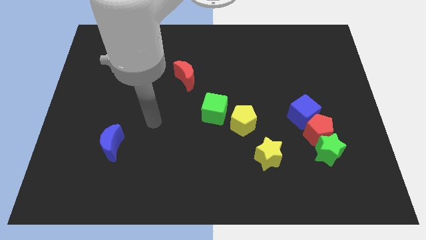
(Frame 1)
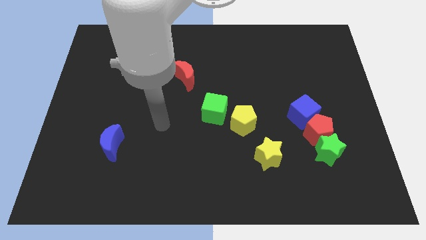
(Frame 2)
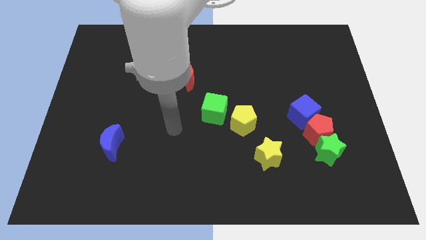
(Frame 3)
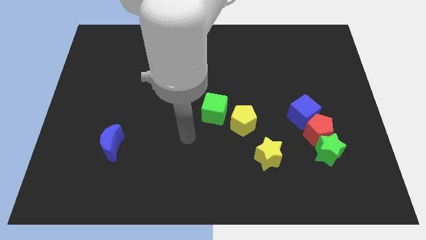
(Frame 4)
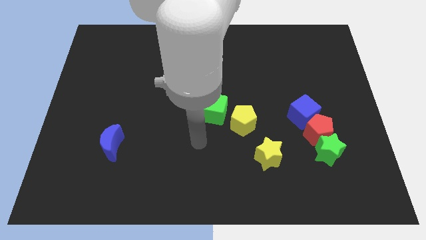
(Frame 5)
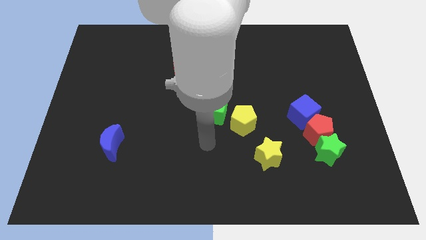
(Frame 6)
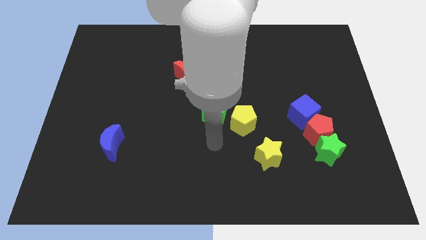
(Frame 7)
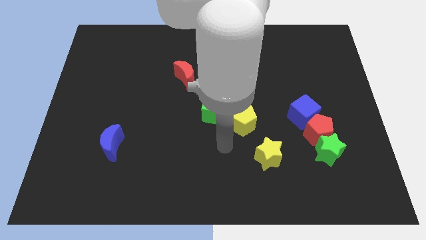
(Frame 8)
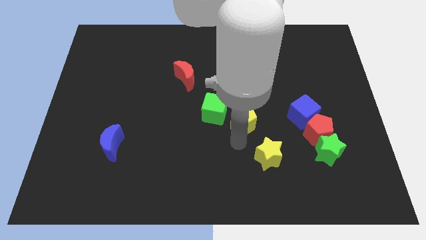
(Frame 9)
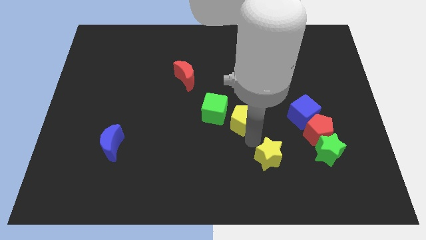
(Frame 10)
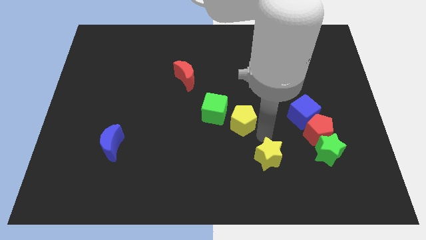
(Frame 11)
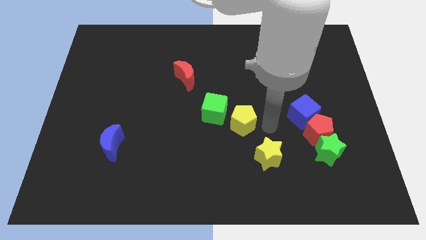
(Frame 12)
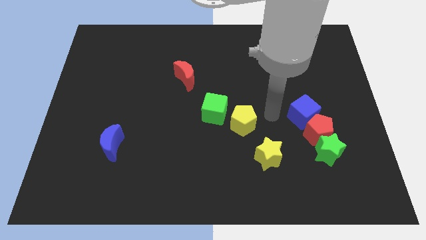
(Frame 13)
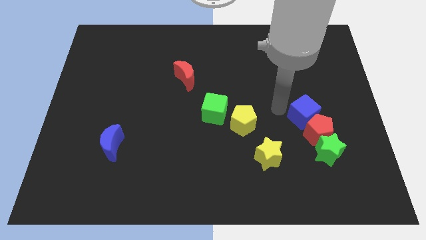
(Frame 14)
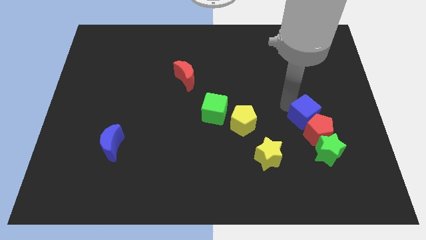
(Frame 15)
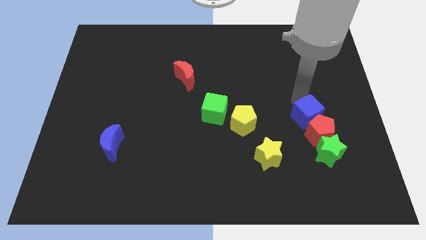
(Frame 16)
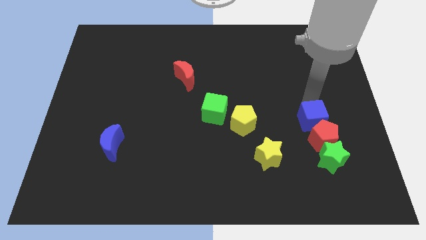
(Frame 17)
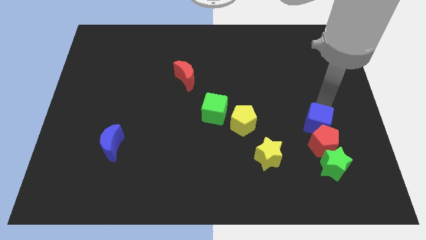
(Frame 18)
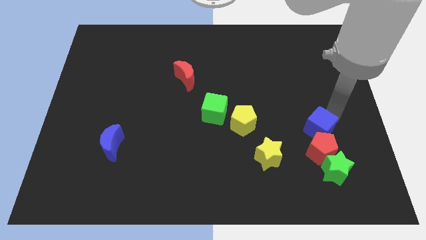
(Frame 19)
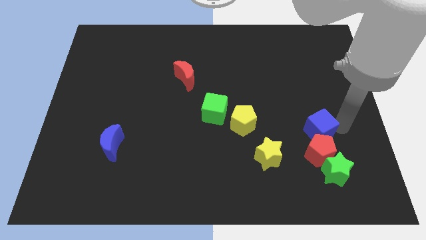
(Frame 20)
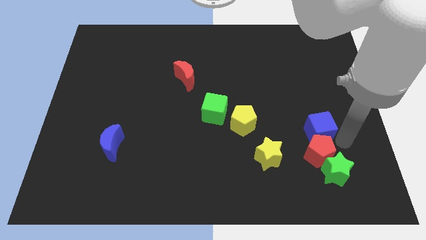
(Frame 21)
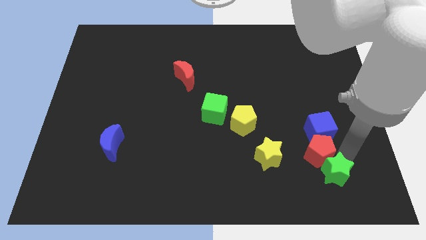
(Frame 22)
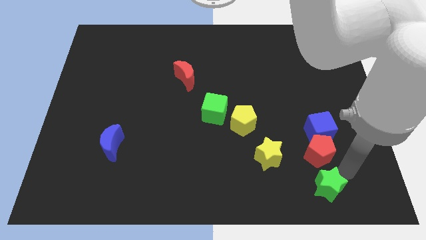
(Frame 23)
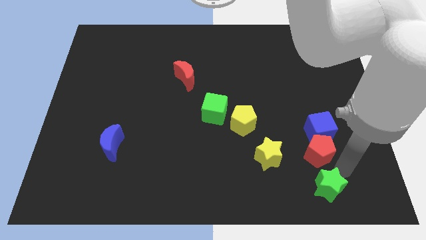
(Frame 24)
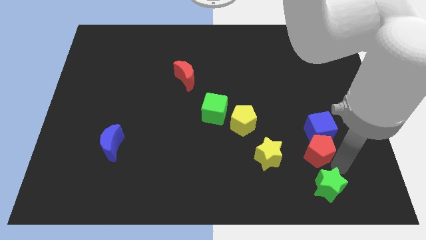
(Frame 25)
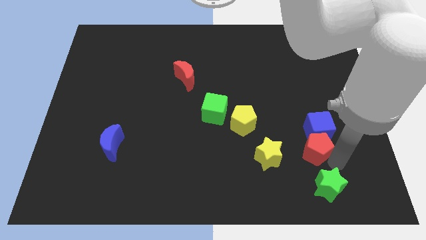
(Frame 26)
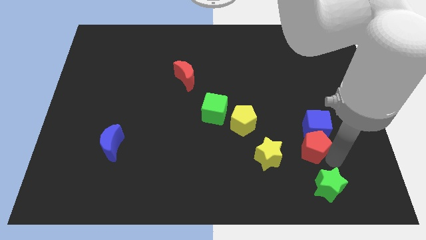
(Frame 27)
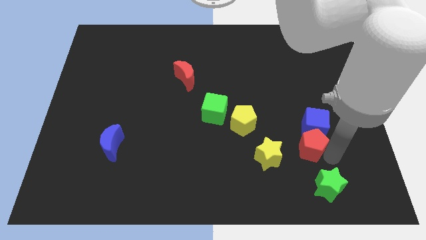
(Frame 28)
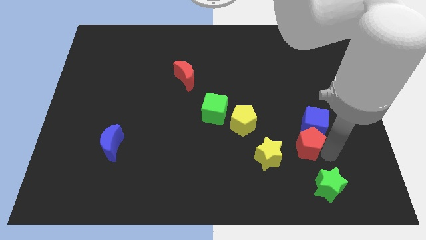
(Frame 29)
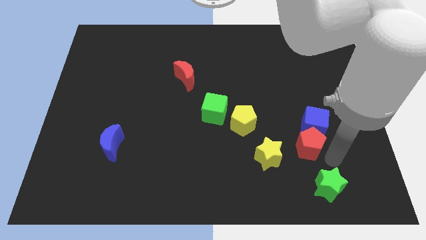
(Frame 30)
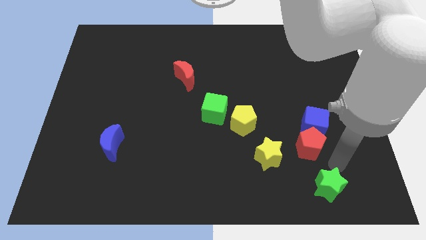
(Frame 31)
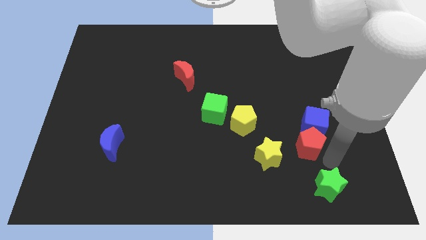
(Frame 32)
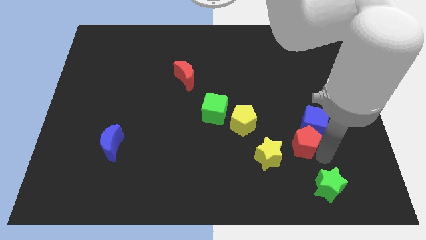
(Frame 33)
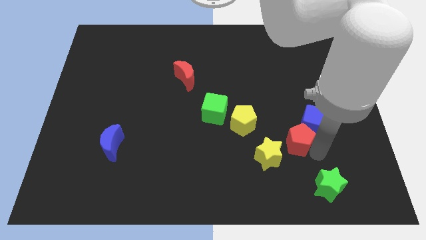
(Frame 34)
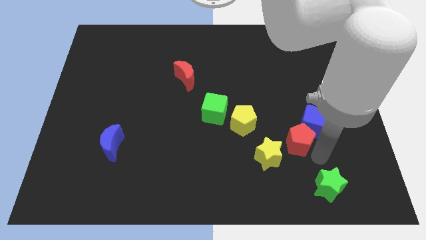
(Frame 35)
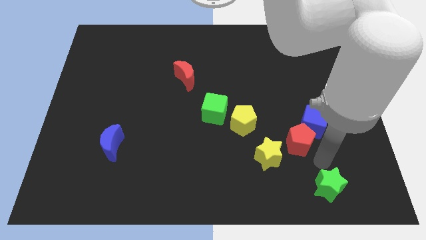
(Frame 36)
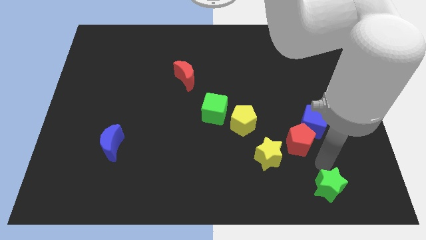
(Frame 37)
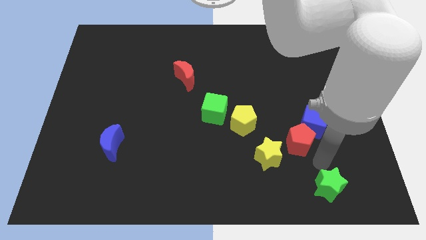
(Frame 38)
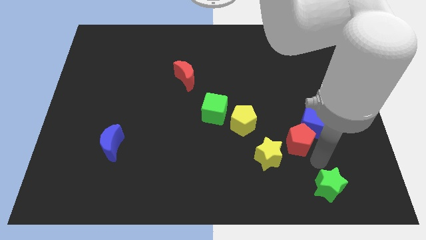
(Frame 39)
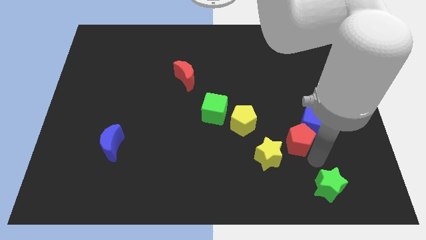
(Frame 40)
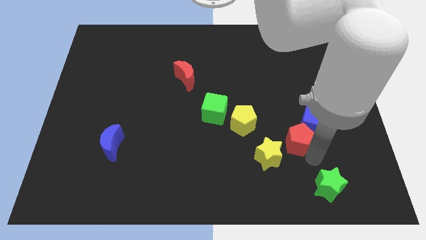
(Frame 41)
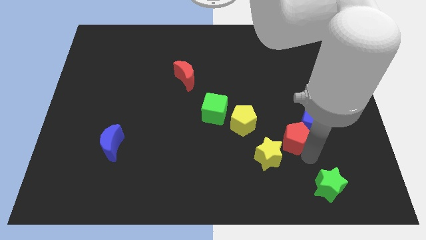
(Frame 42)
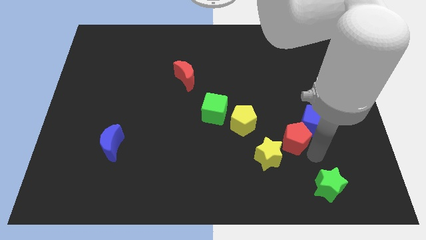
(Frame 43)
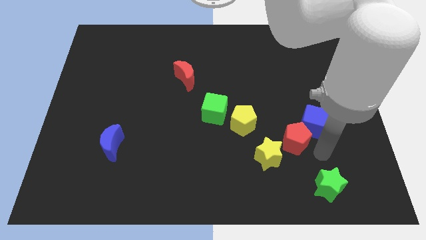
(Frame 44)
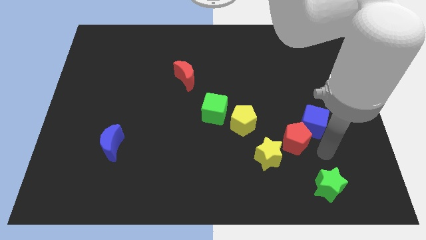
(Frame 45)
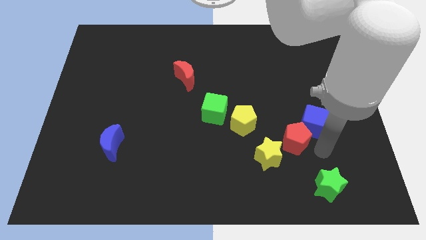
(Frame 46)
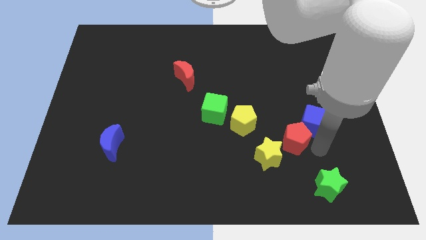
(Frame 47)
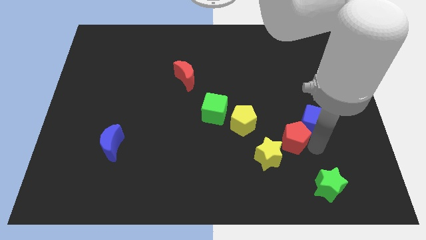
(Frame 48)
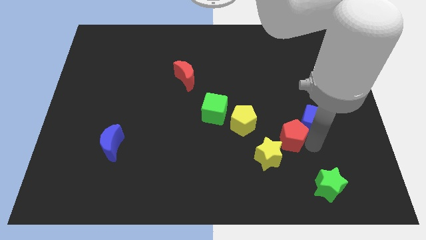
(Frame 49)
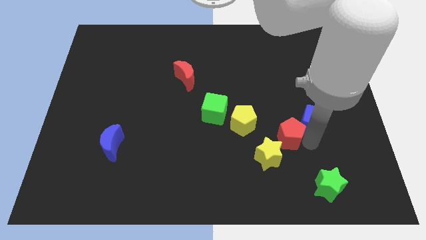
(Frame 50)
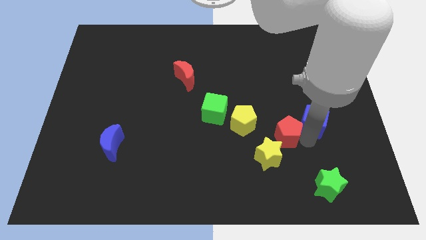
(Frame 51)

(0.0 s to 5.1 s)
move the red pentagon to the left a bit

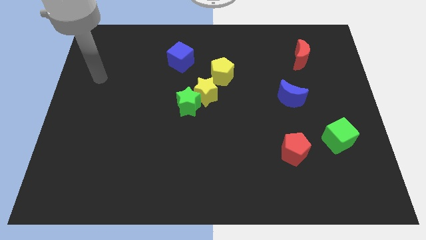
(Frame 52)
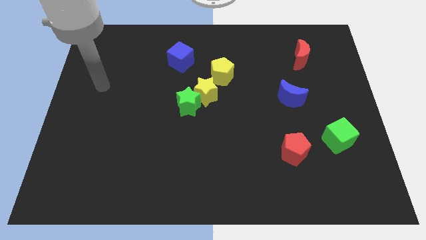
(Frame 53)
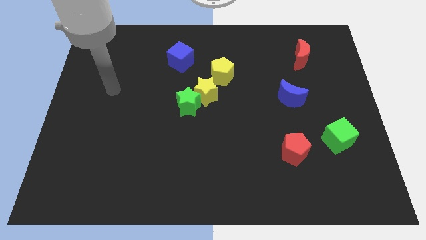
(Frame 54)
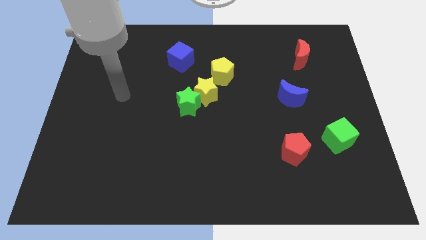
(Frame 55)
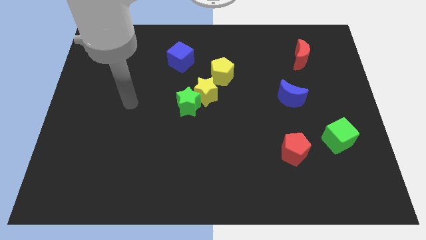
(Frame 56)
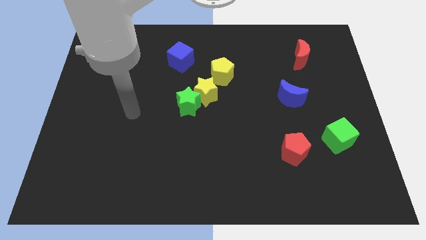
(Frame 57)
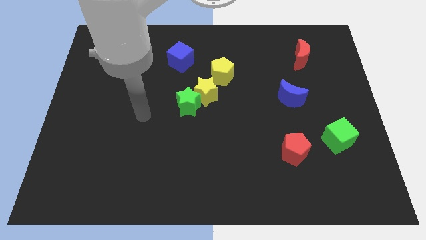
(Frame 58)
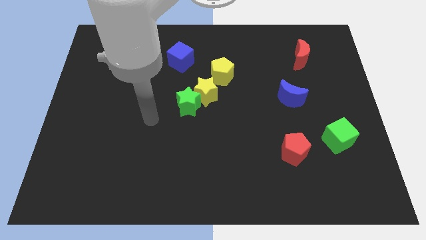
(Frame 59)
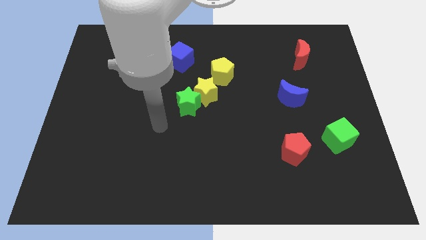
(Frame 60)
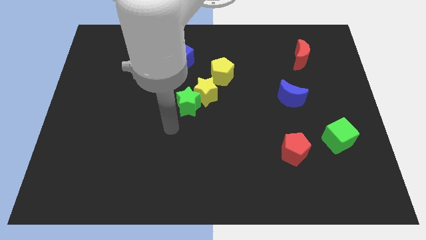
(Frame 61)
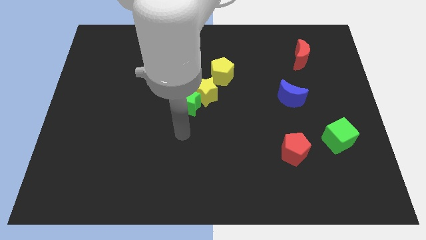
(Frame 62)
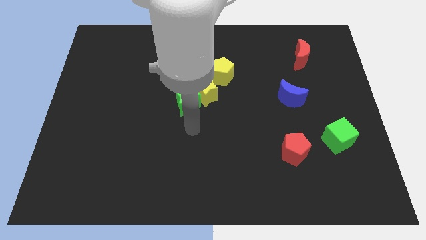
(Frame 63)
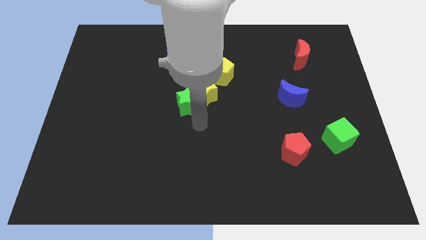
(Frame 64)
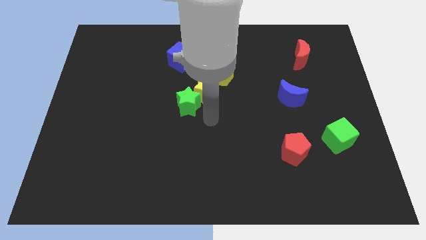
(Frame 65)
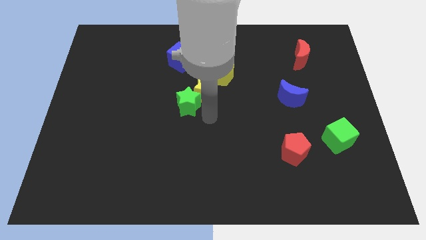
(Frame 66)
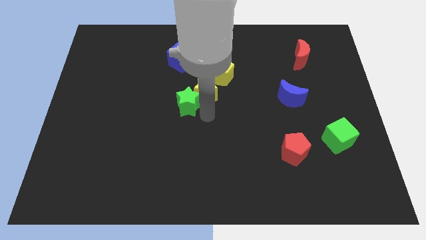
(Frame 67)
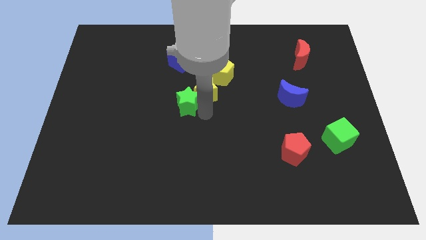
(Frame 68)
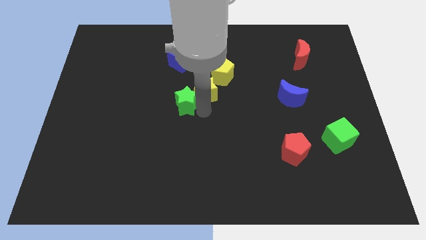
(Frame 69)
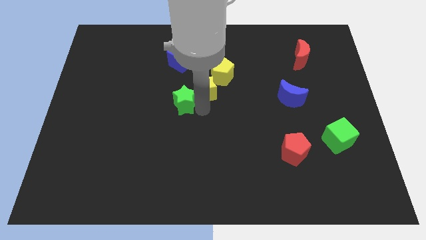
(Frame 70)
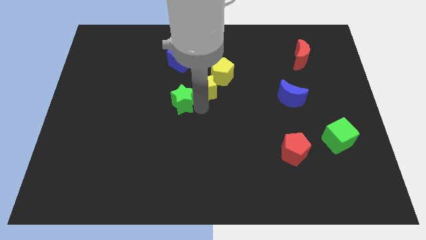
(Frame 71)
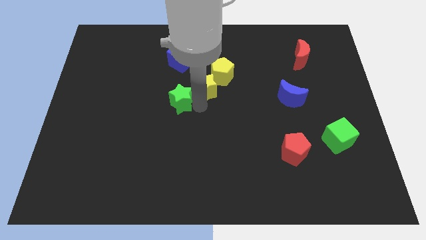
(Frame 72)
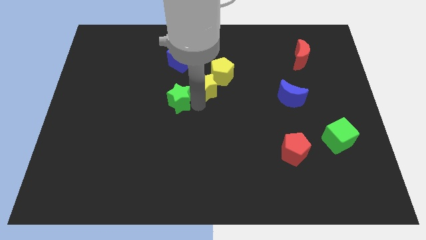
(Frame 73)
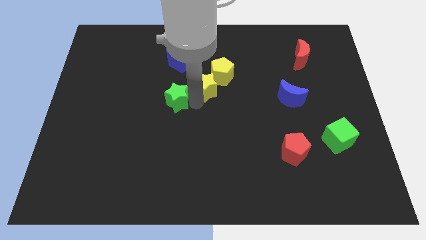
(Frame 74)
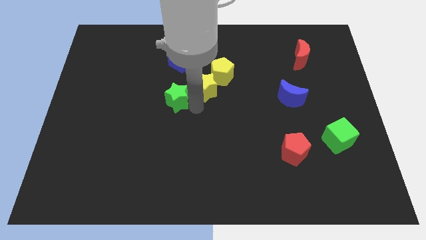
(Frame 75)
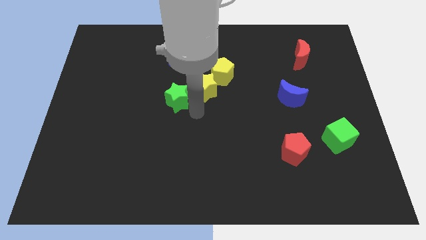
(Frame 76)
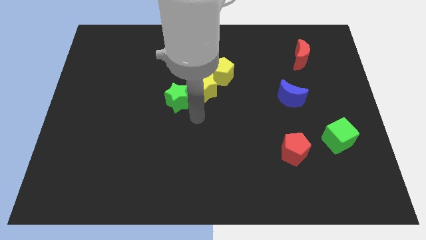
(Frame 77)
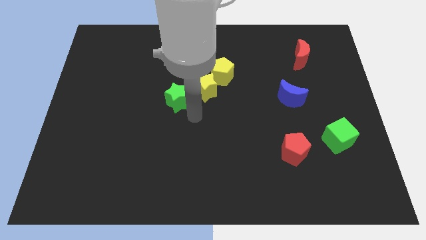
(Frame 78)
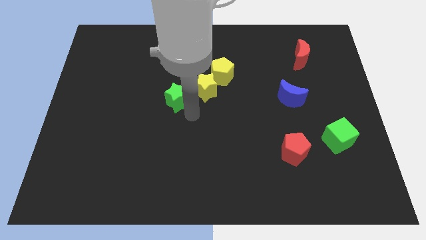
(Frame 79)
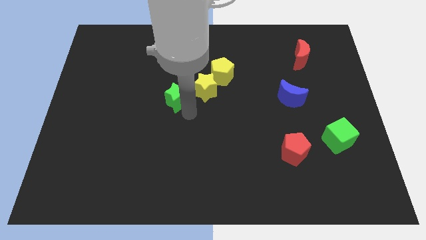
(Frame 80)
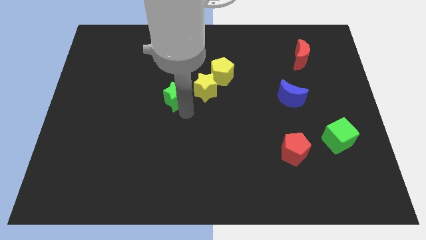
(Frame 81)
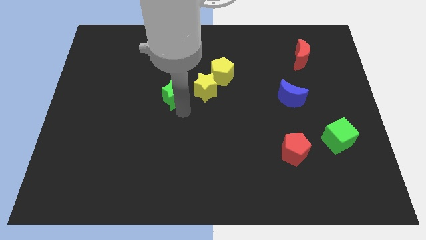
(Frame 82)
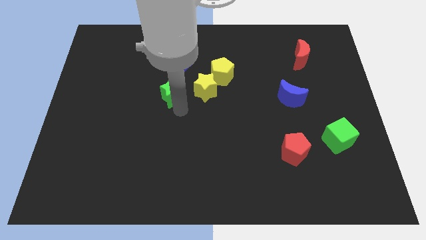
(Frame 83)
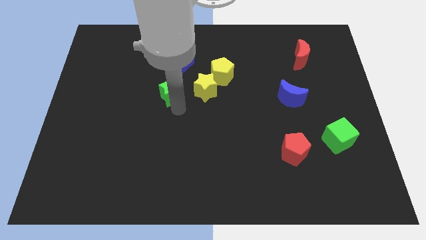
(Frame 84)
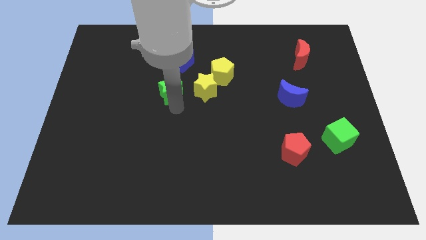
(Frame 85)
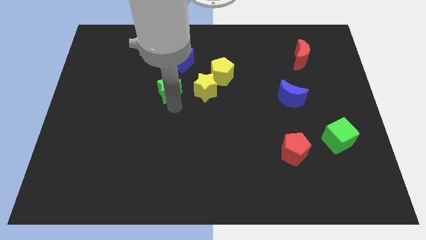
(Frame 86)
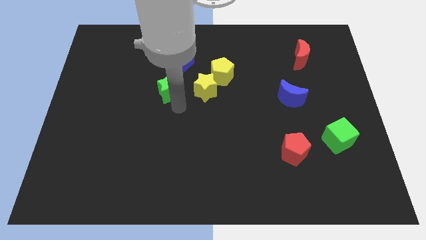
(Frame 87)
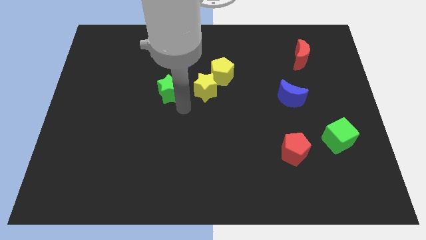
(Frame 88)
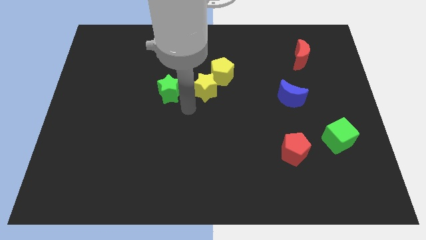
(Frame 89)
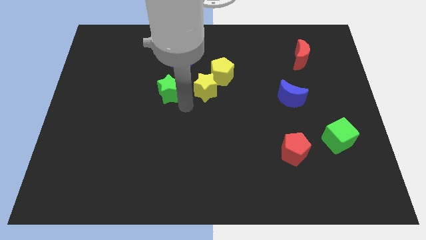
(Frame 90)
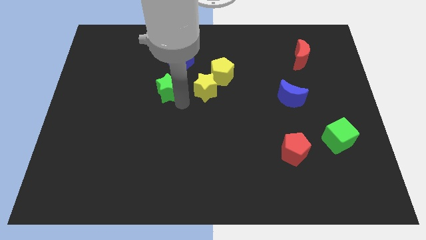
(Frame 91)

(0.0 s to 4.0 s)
push the green star upwards and left a bit
